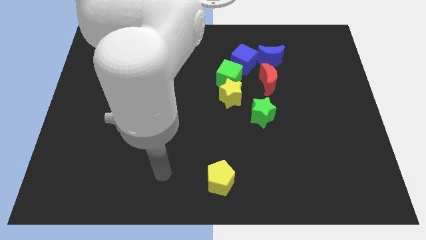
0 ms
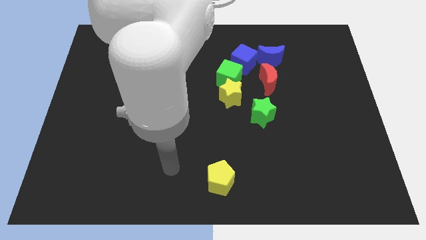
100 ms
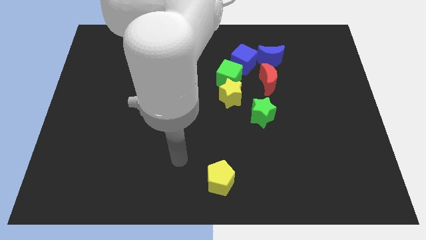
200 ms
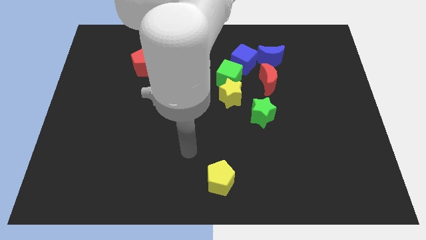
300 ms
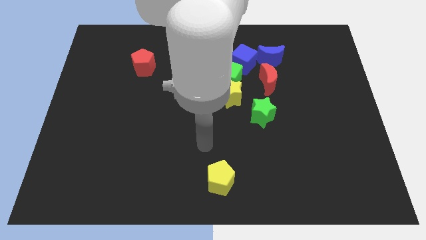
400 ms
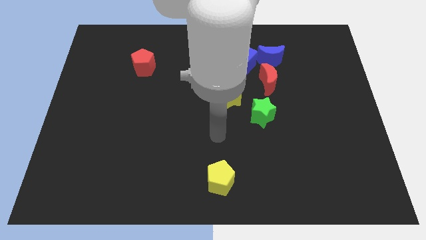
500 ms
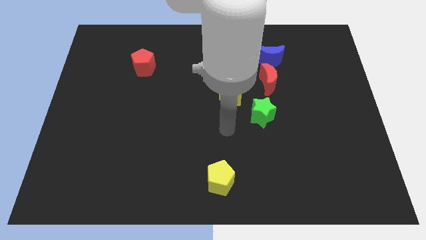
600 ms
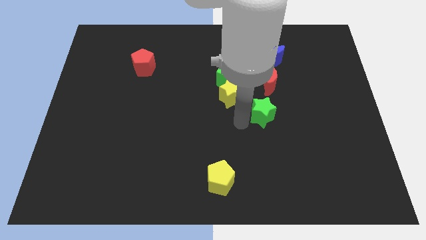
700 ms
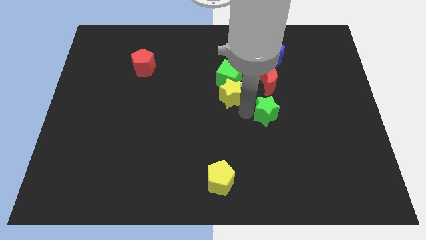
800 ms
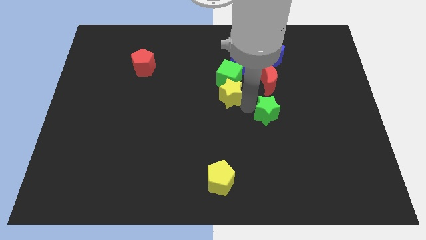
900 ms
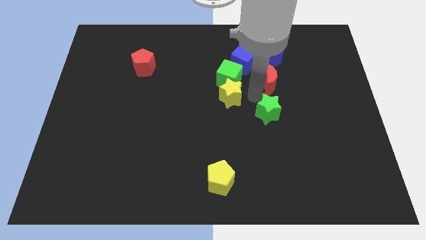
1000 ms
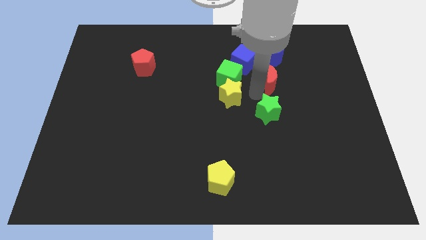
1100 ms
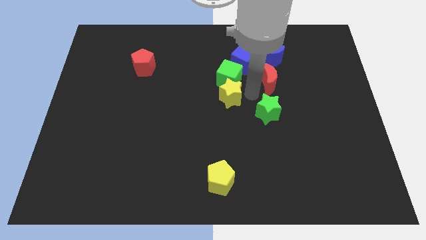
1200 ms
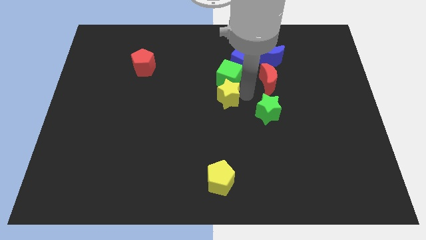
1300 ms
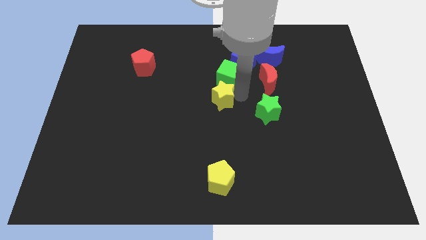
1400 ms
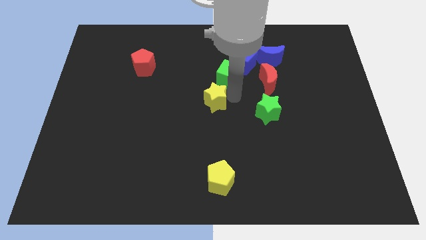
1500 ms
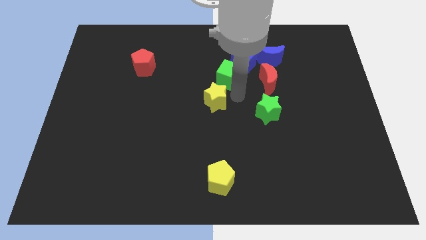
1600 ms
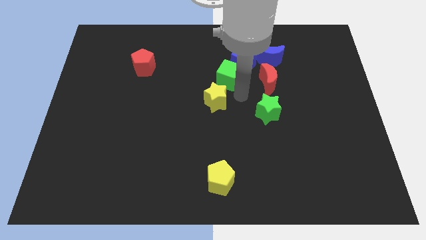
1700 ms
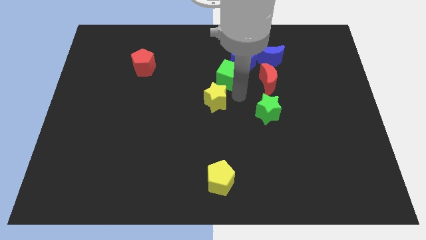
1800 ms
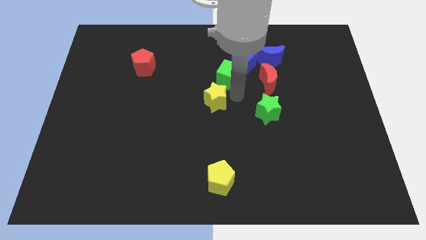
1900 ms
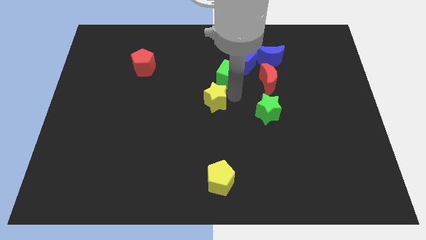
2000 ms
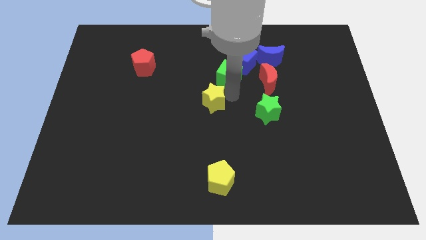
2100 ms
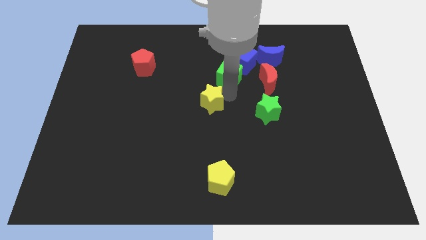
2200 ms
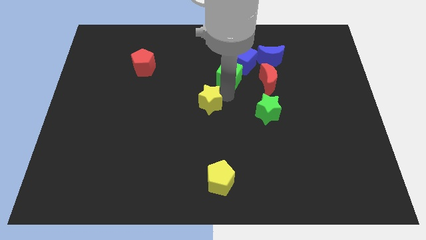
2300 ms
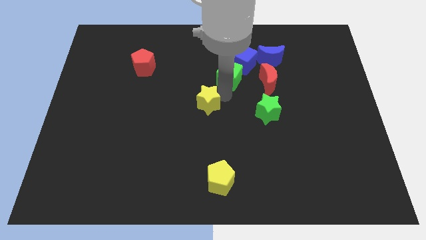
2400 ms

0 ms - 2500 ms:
move the yellow star away from the green cube and green star

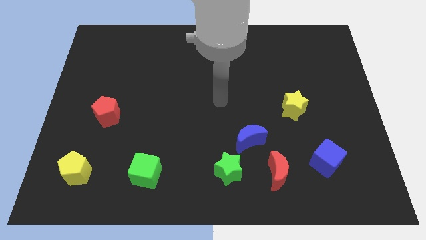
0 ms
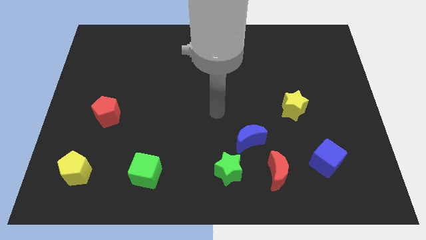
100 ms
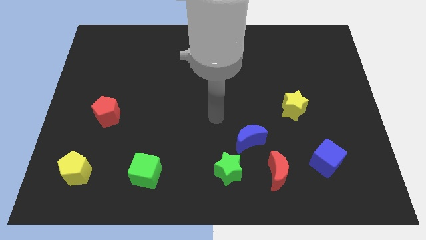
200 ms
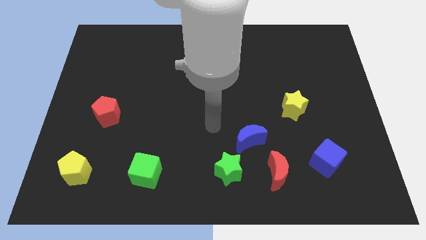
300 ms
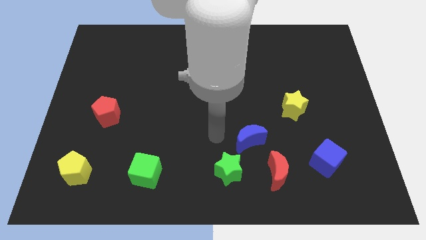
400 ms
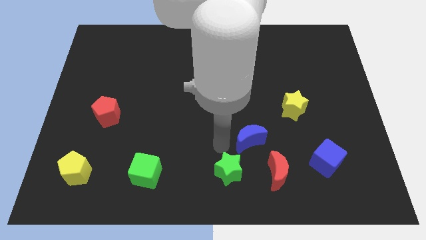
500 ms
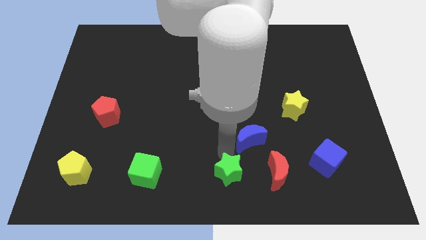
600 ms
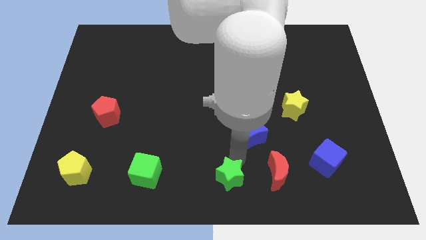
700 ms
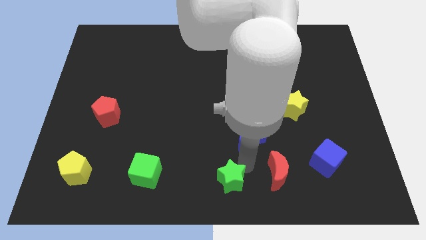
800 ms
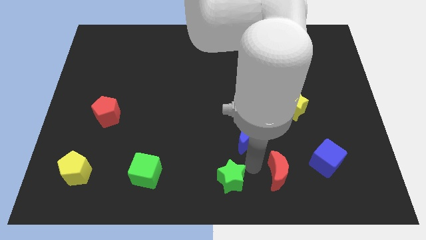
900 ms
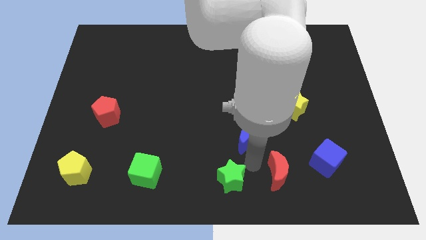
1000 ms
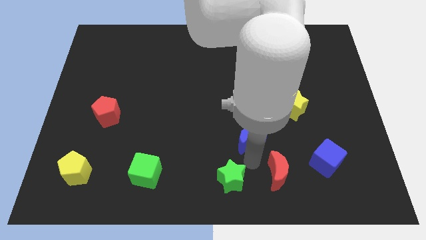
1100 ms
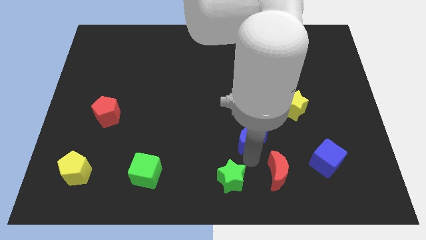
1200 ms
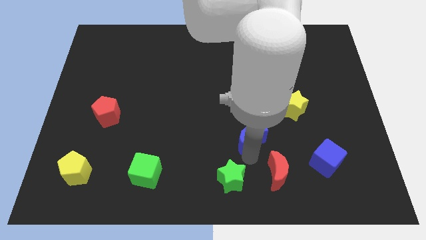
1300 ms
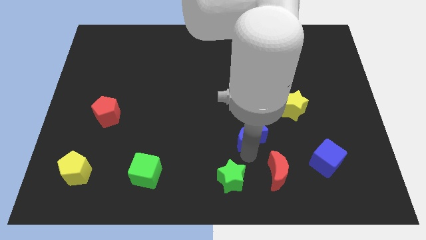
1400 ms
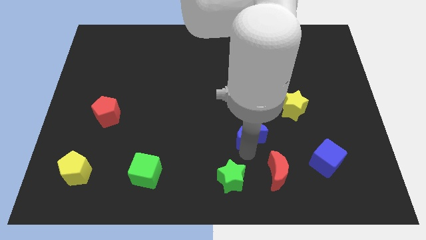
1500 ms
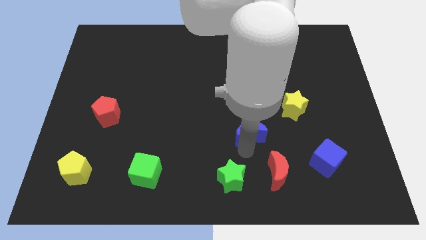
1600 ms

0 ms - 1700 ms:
separate the blue moon from the green star and red moon

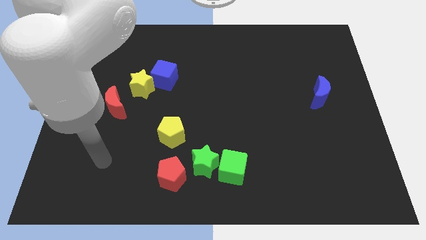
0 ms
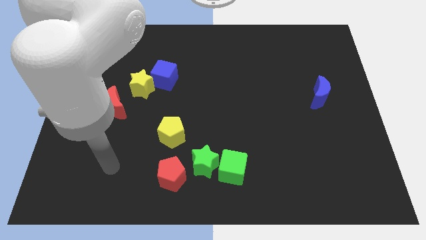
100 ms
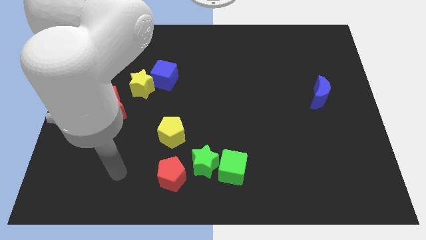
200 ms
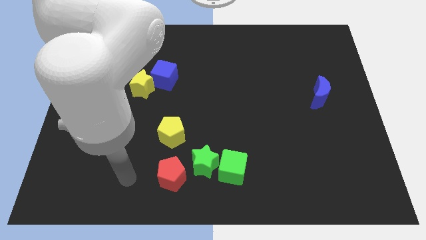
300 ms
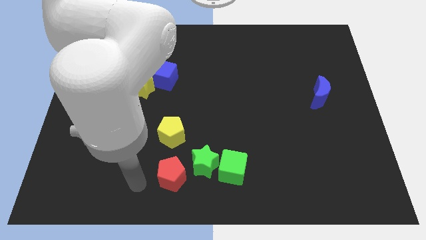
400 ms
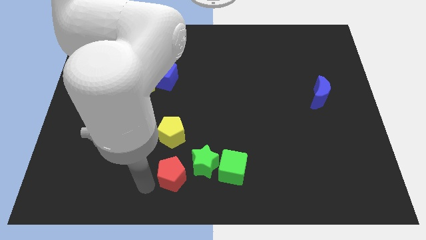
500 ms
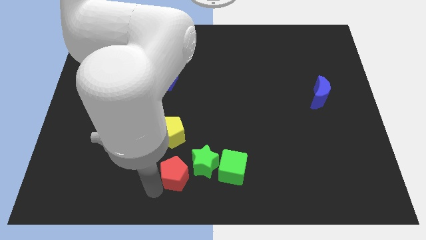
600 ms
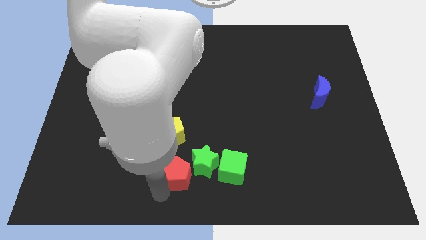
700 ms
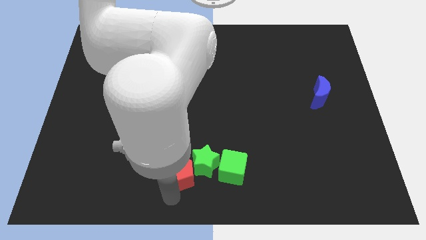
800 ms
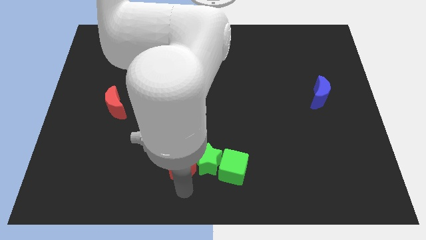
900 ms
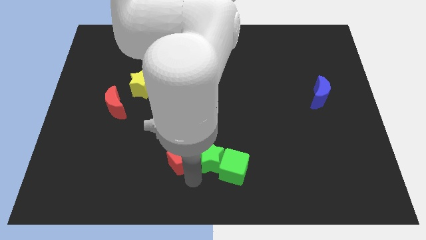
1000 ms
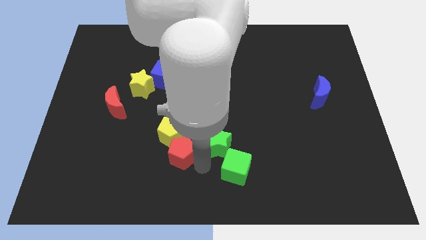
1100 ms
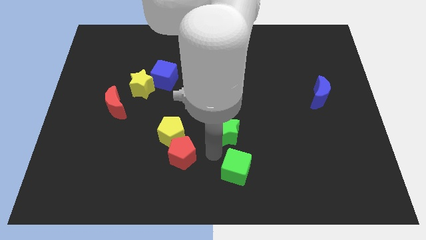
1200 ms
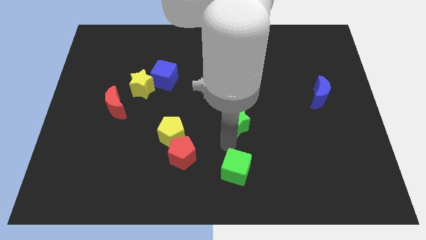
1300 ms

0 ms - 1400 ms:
separate the green cube from the green star

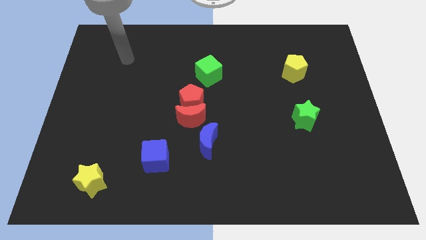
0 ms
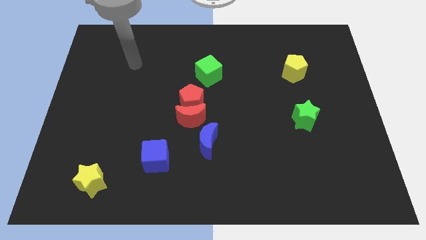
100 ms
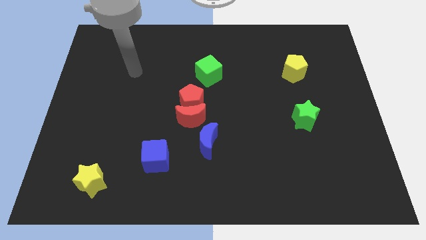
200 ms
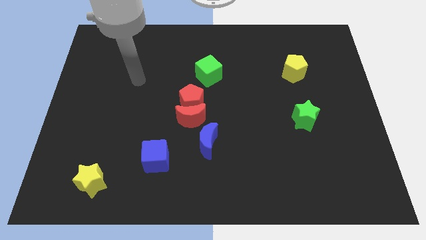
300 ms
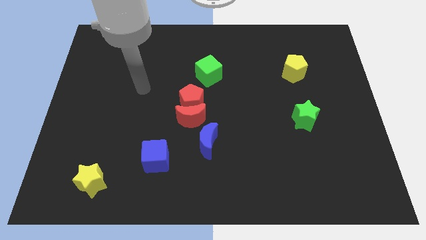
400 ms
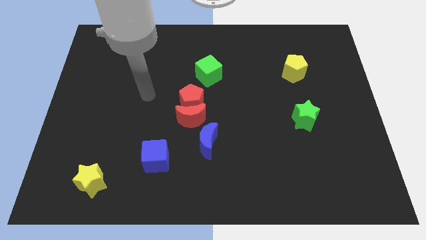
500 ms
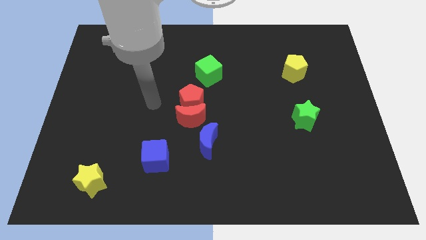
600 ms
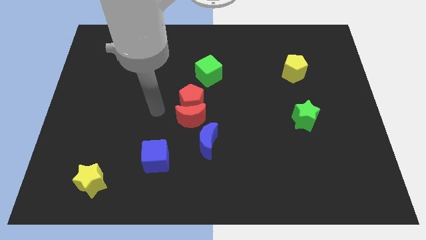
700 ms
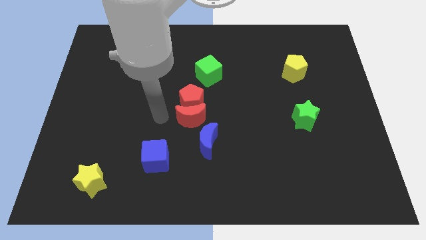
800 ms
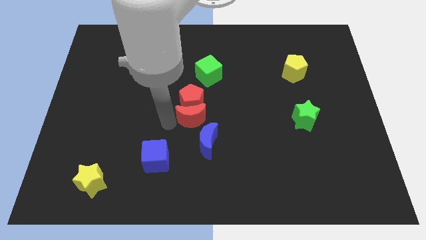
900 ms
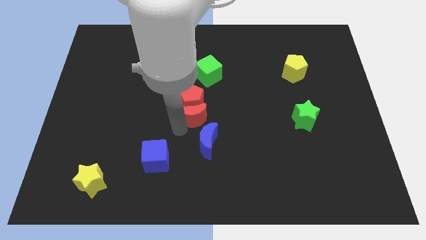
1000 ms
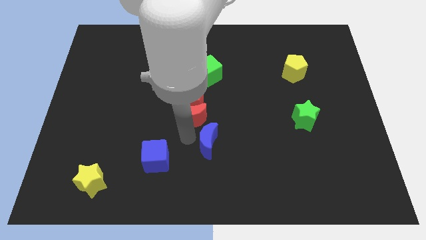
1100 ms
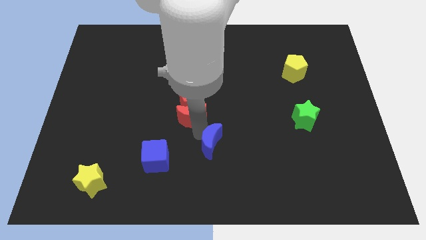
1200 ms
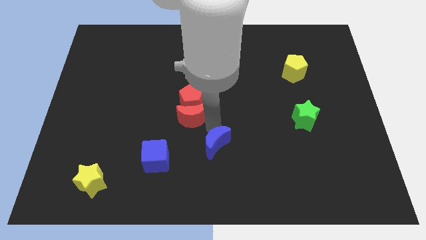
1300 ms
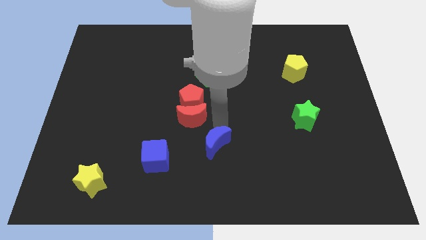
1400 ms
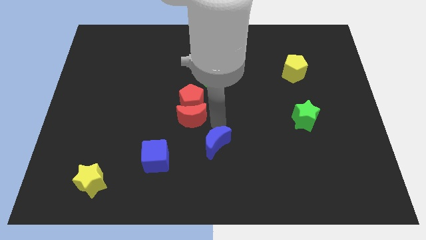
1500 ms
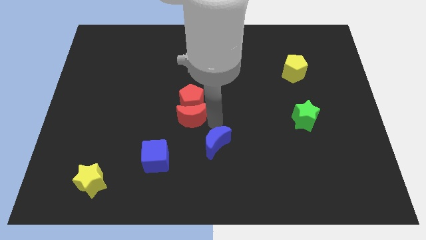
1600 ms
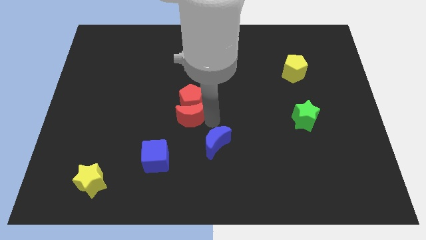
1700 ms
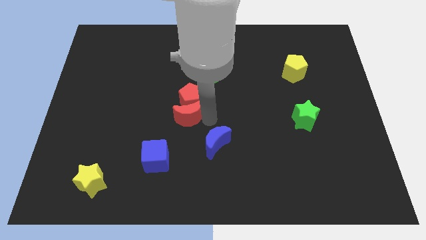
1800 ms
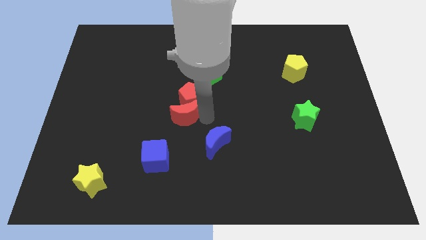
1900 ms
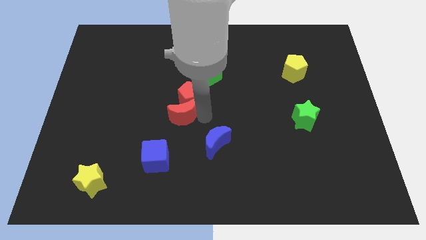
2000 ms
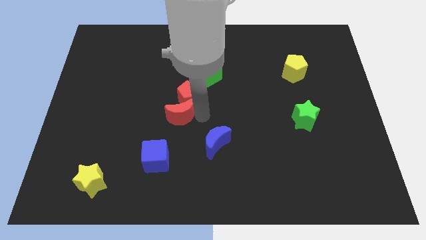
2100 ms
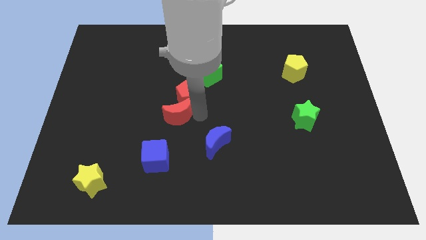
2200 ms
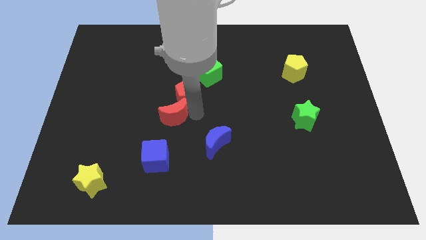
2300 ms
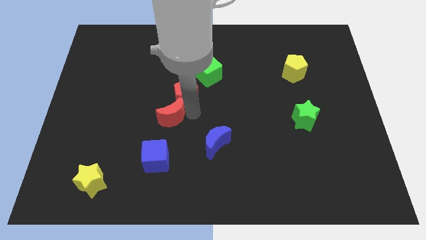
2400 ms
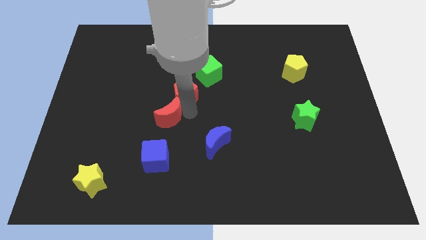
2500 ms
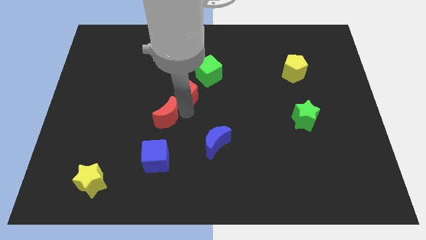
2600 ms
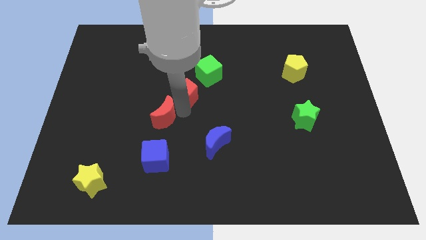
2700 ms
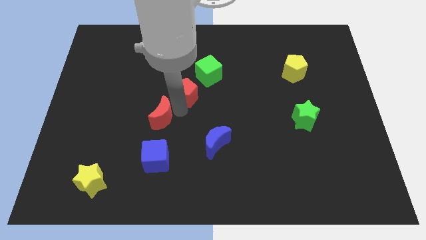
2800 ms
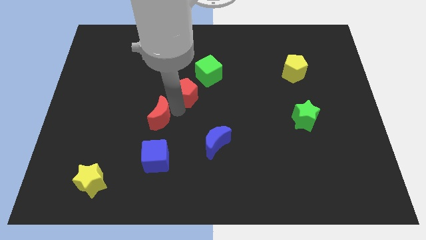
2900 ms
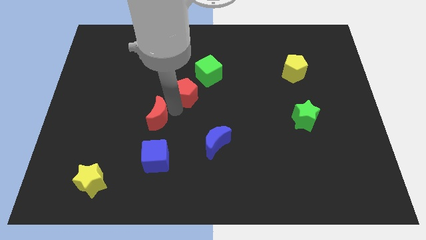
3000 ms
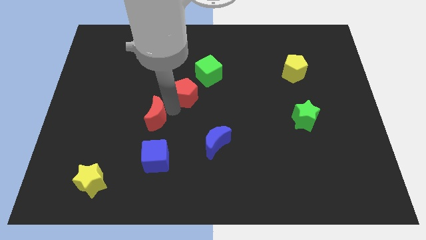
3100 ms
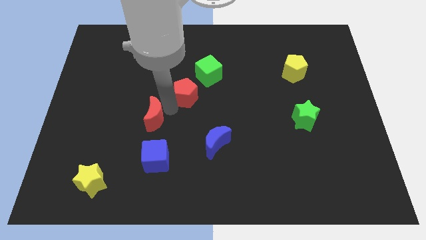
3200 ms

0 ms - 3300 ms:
move the red moon away from the red pentagon and blue moon

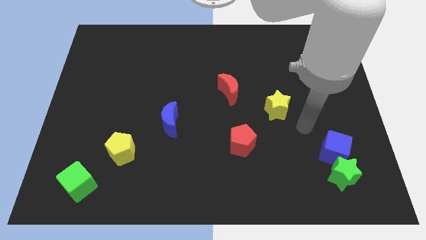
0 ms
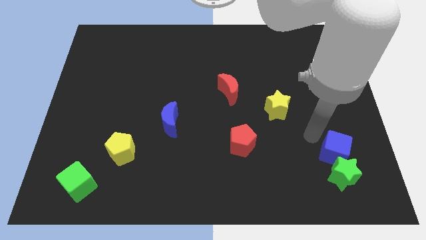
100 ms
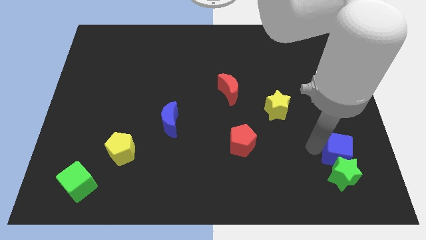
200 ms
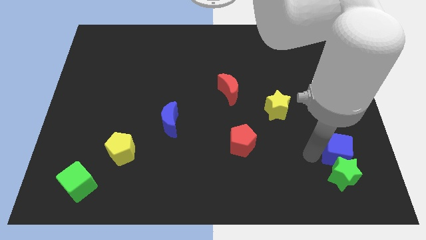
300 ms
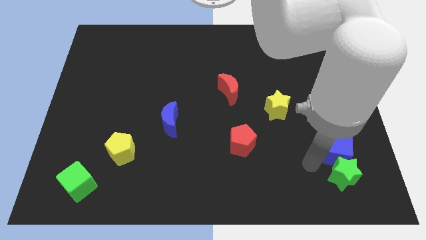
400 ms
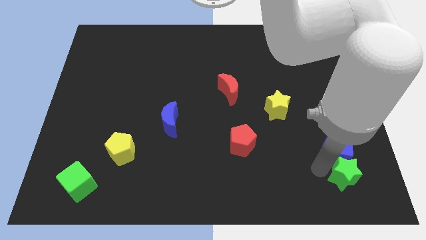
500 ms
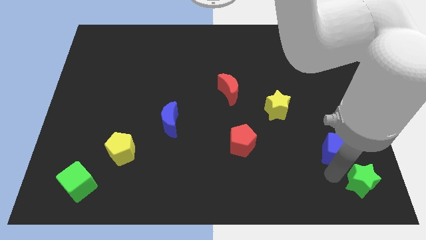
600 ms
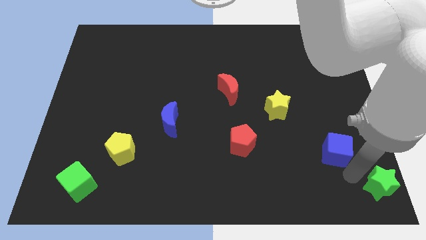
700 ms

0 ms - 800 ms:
move the blue cube away from the green star
